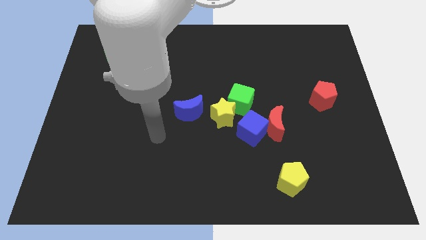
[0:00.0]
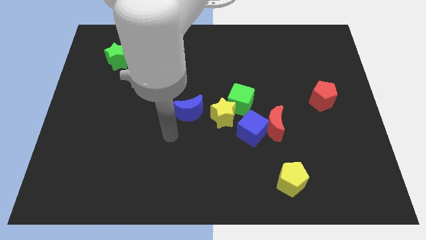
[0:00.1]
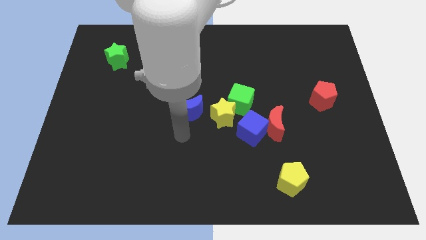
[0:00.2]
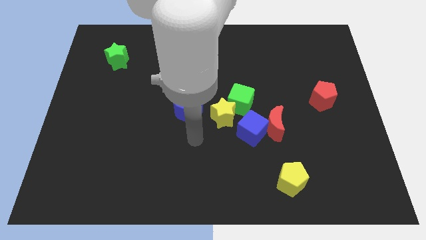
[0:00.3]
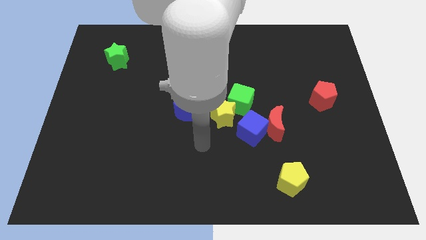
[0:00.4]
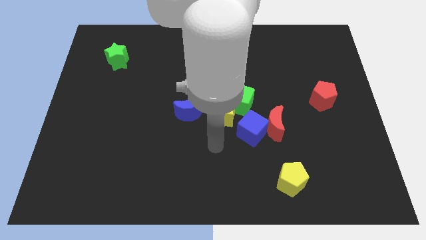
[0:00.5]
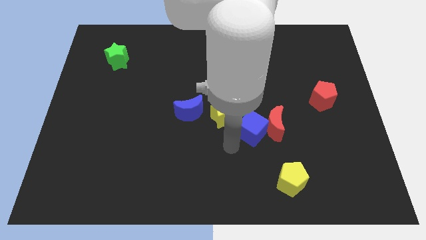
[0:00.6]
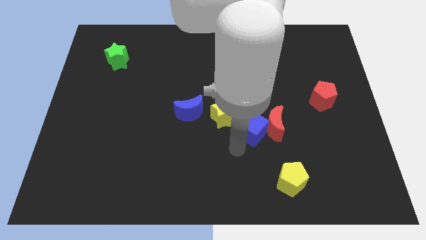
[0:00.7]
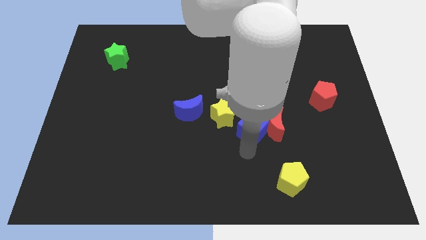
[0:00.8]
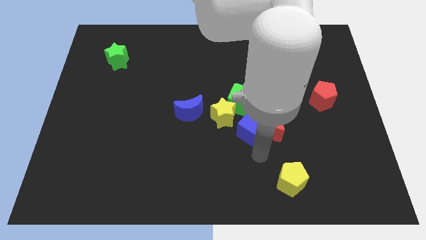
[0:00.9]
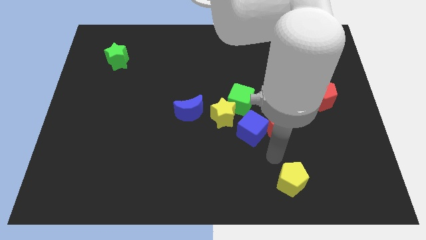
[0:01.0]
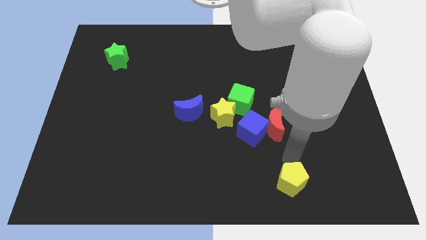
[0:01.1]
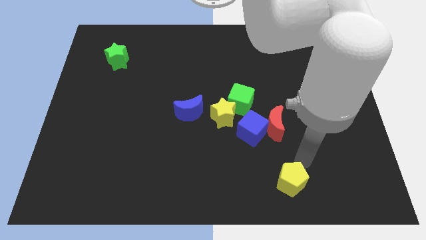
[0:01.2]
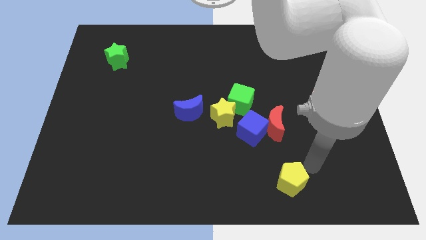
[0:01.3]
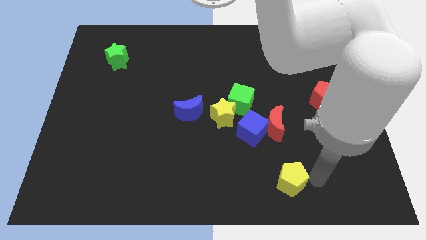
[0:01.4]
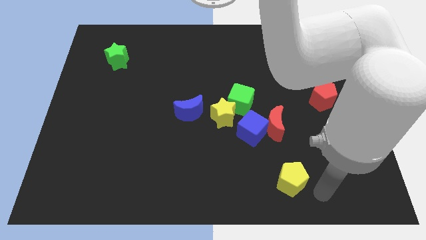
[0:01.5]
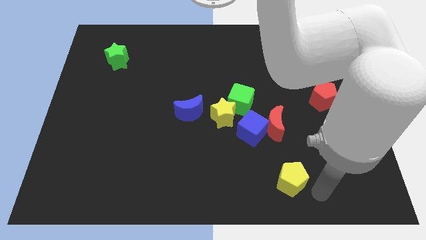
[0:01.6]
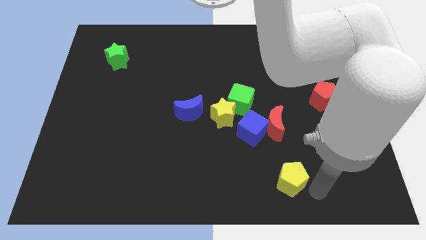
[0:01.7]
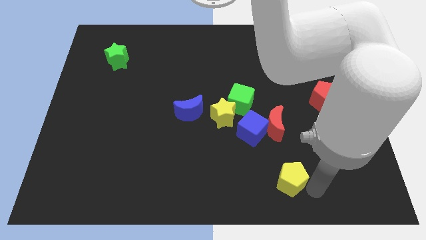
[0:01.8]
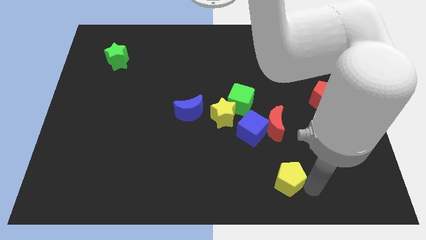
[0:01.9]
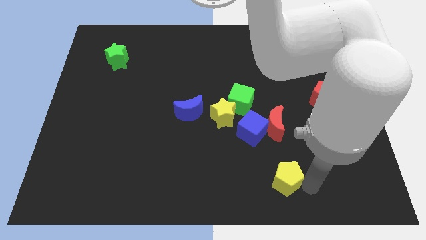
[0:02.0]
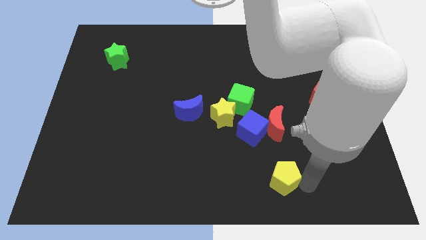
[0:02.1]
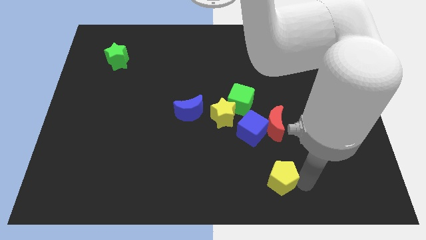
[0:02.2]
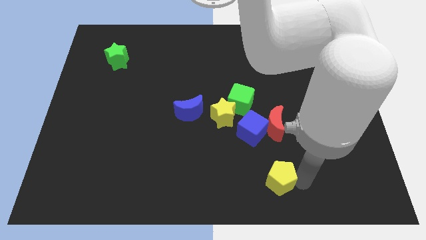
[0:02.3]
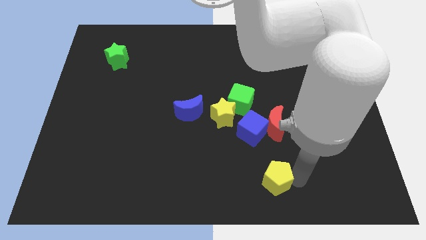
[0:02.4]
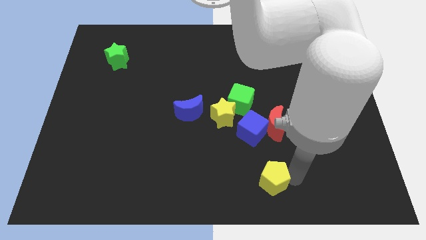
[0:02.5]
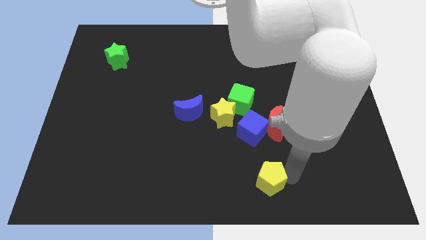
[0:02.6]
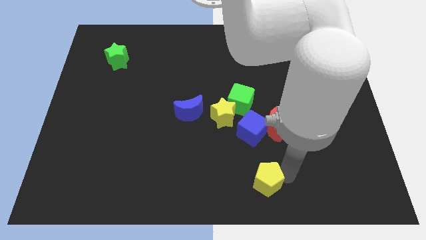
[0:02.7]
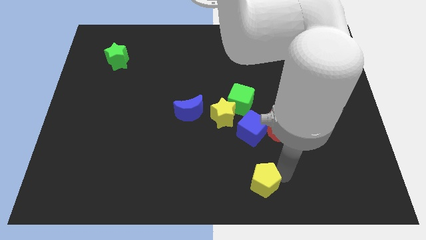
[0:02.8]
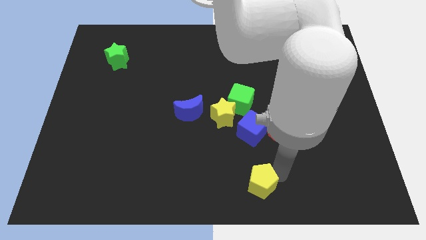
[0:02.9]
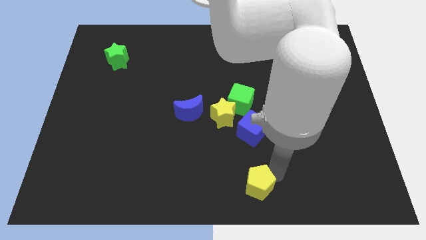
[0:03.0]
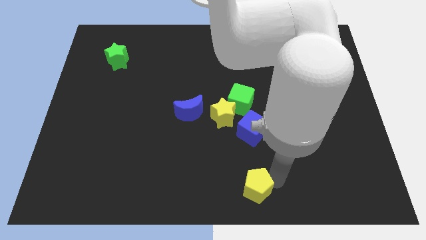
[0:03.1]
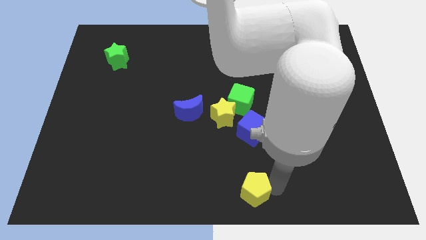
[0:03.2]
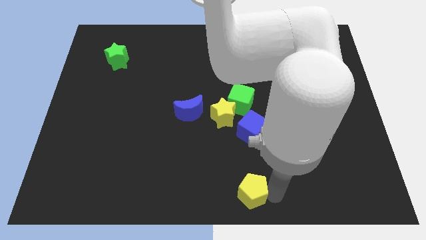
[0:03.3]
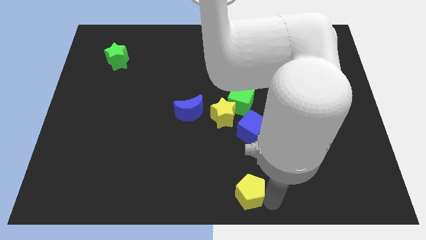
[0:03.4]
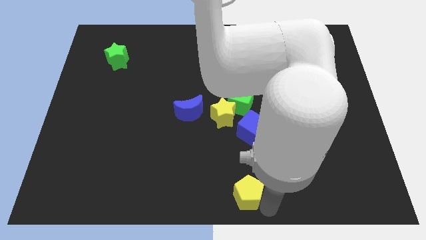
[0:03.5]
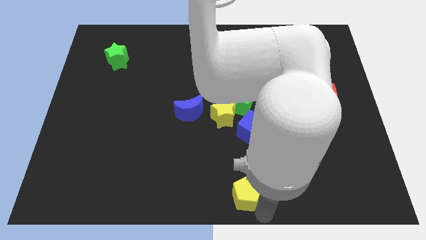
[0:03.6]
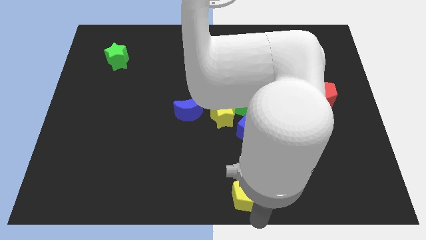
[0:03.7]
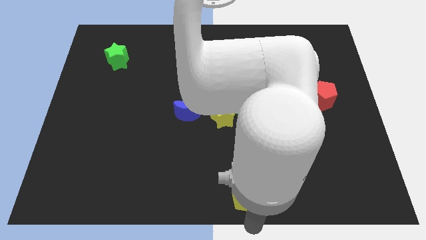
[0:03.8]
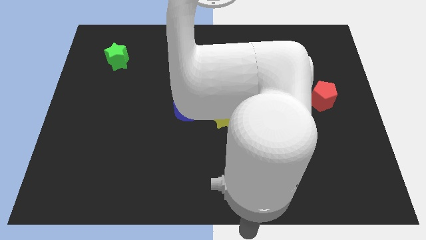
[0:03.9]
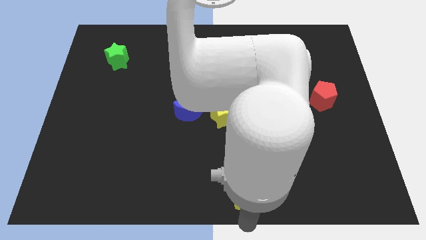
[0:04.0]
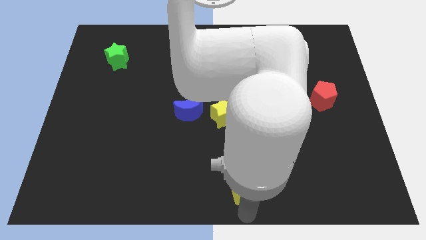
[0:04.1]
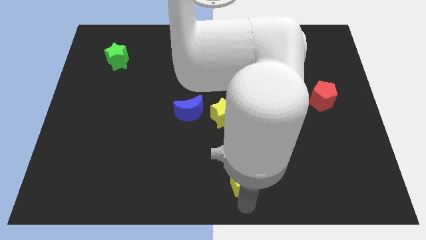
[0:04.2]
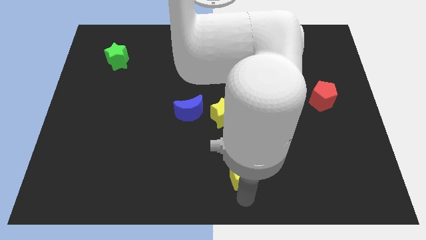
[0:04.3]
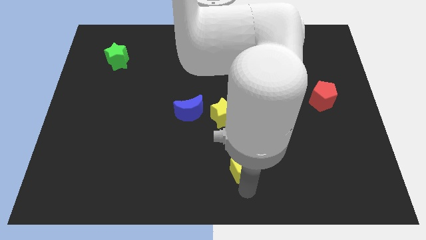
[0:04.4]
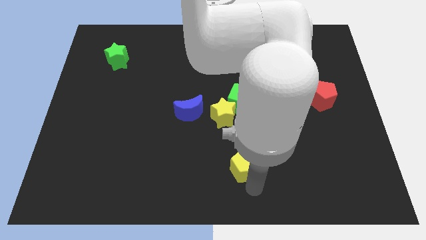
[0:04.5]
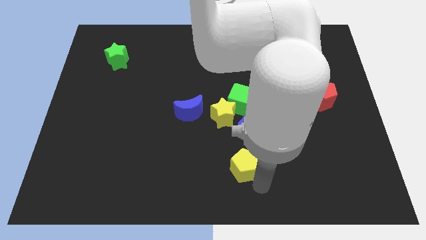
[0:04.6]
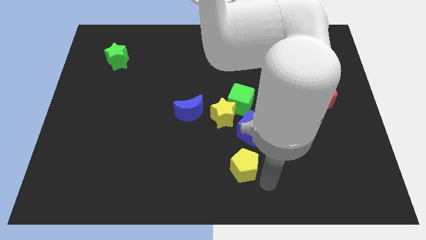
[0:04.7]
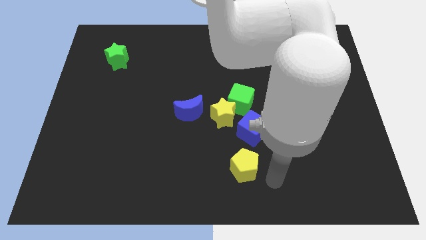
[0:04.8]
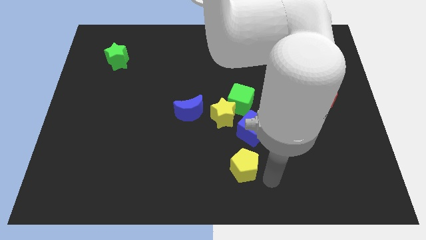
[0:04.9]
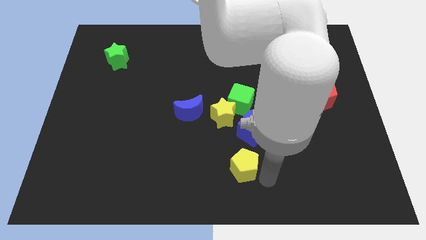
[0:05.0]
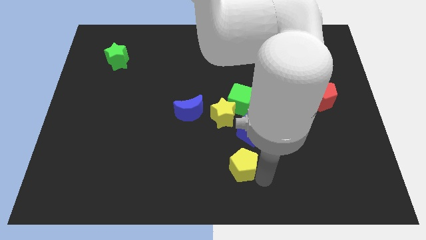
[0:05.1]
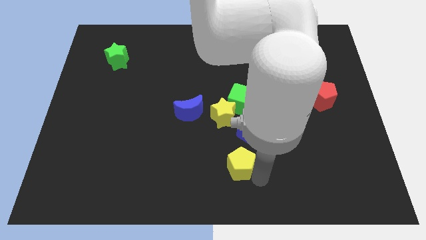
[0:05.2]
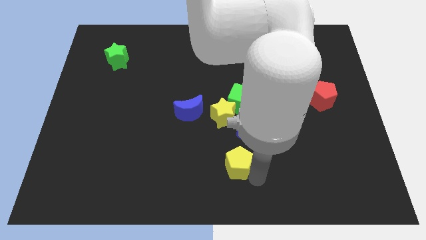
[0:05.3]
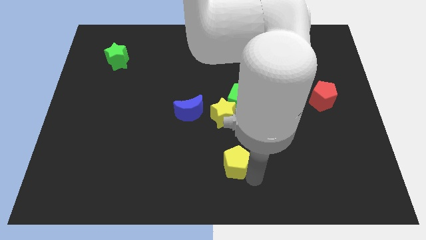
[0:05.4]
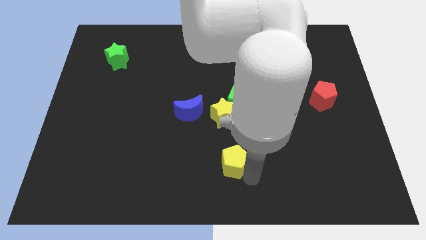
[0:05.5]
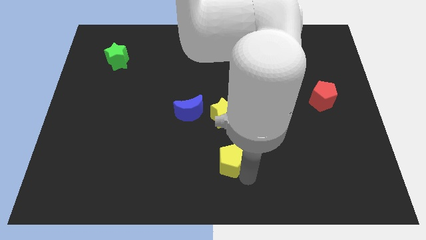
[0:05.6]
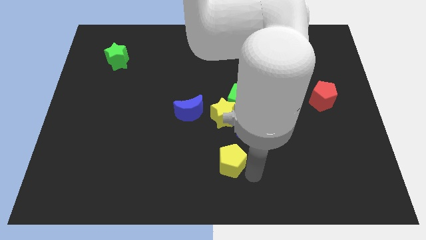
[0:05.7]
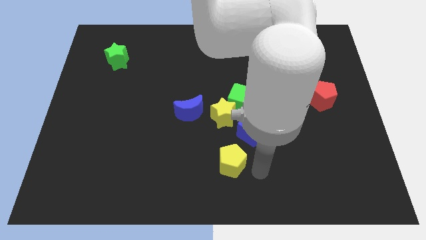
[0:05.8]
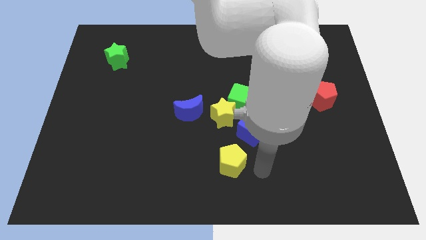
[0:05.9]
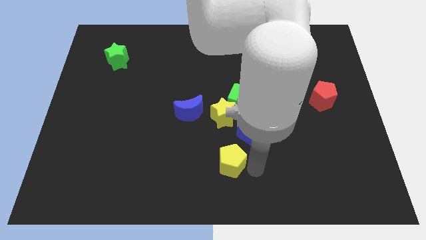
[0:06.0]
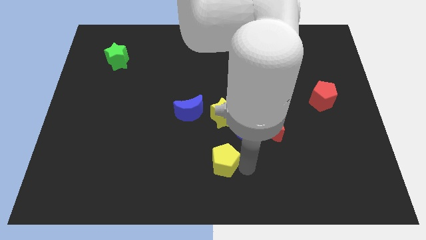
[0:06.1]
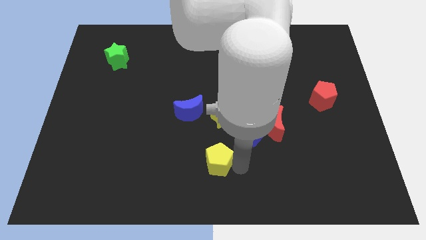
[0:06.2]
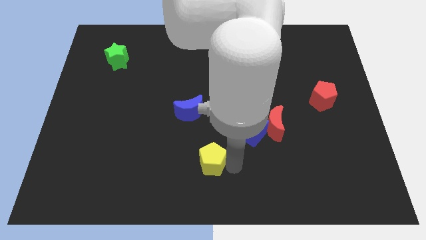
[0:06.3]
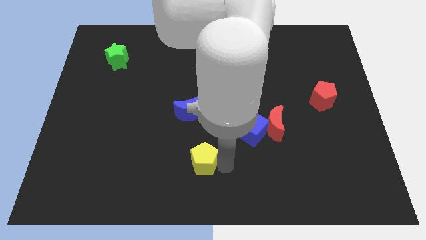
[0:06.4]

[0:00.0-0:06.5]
put the yellow pentagon to the bottom side of the blue moon

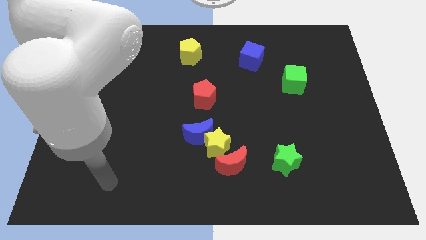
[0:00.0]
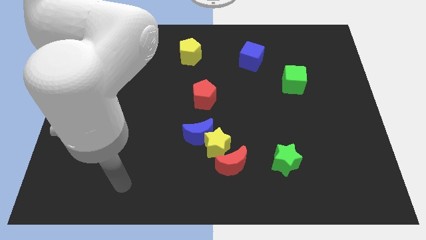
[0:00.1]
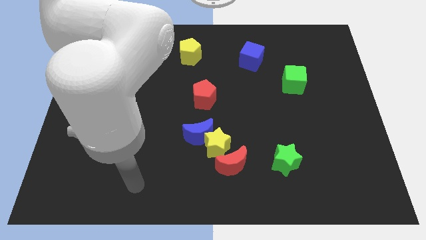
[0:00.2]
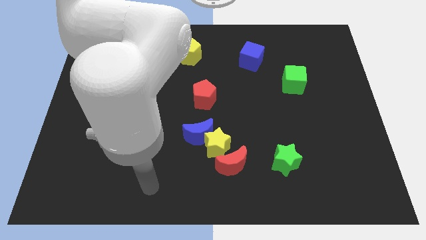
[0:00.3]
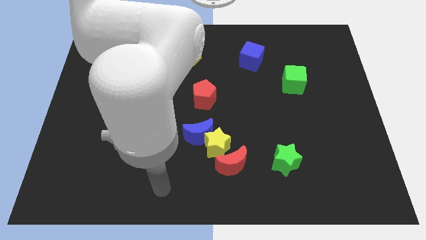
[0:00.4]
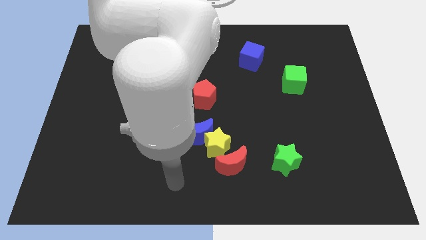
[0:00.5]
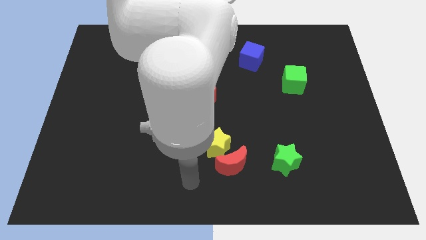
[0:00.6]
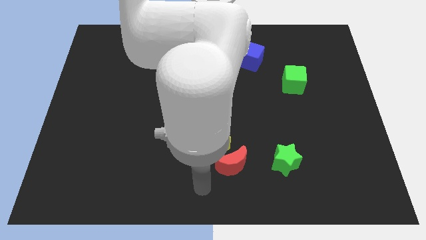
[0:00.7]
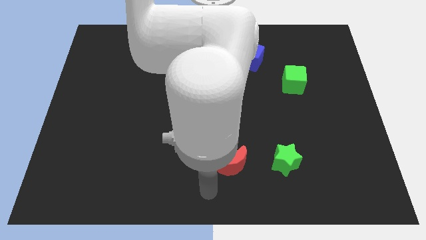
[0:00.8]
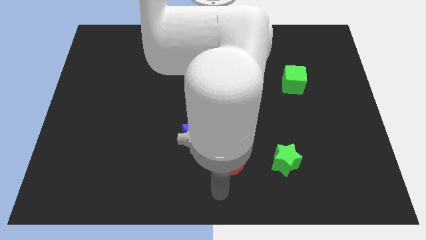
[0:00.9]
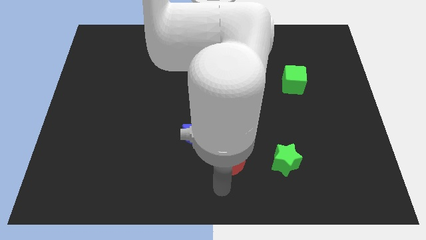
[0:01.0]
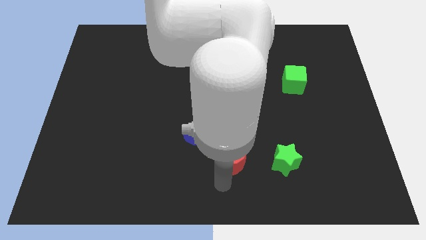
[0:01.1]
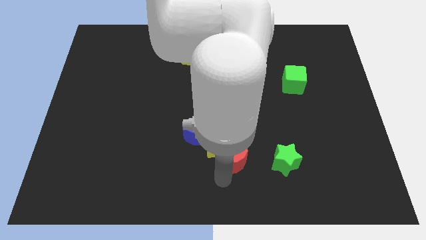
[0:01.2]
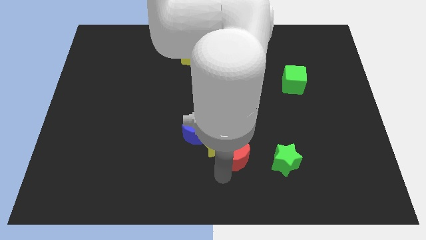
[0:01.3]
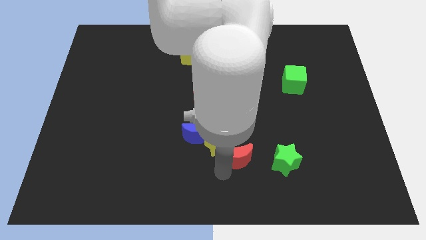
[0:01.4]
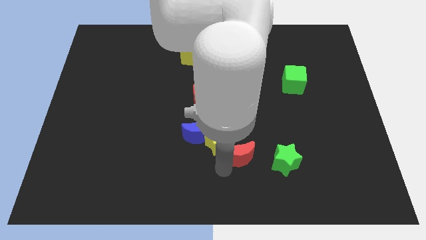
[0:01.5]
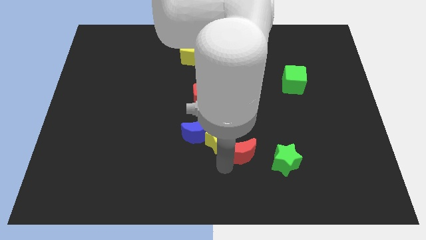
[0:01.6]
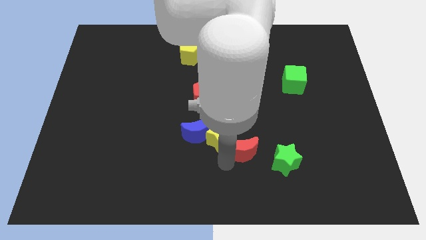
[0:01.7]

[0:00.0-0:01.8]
push the red moon just right of the blue moon
